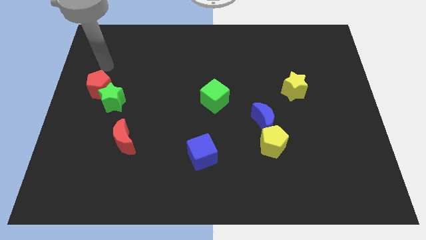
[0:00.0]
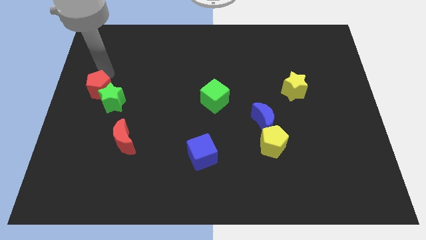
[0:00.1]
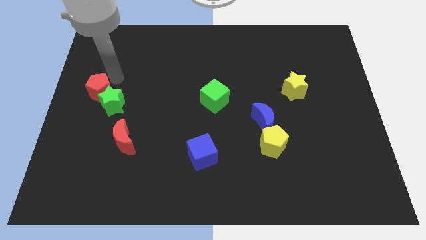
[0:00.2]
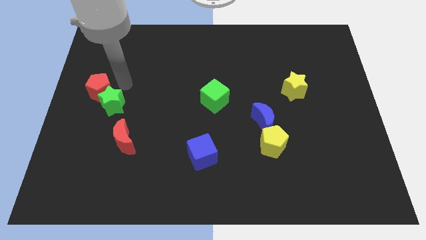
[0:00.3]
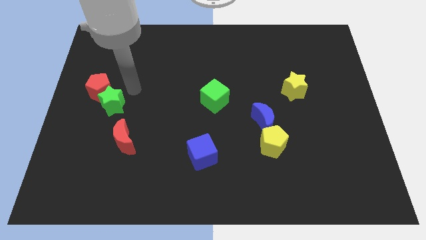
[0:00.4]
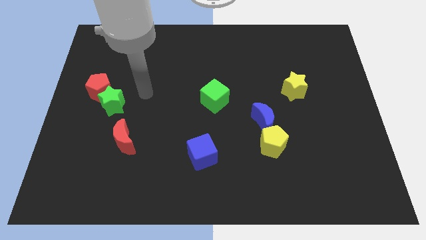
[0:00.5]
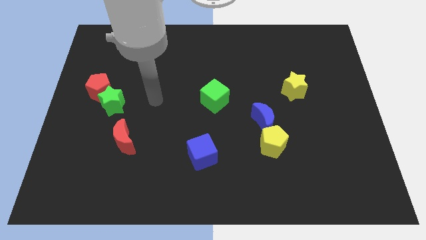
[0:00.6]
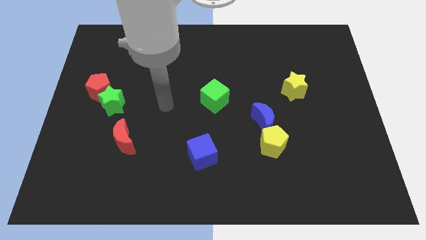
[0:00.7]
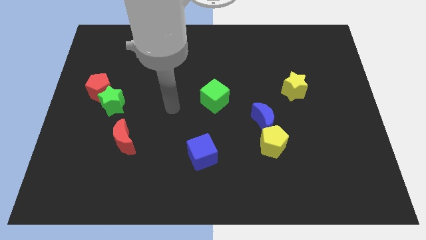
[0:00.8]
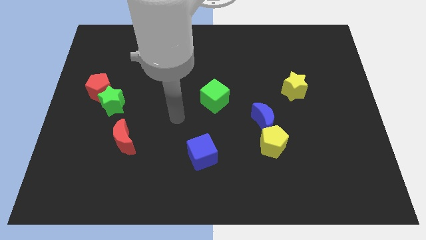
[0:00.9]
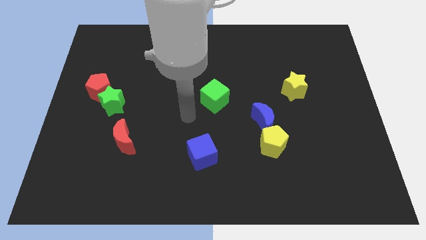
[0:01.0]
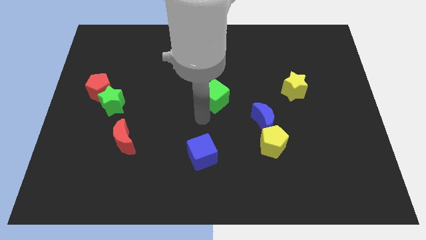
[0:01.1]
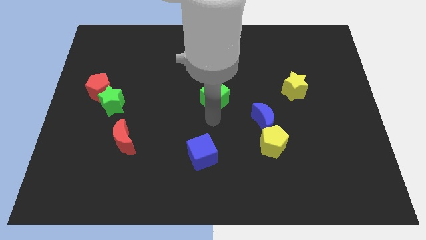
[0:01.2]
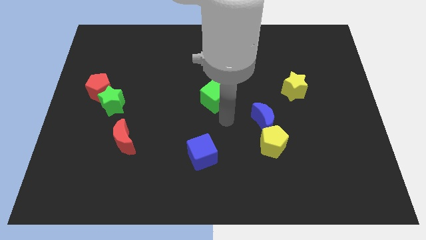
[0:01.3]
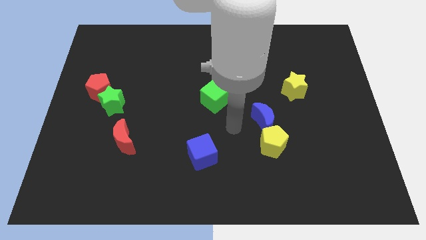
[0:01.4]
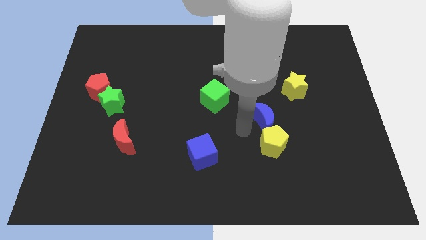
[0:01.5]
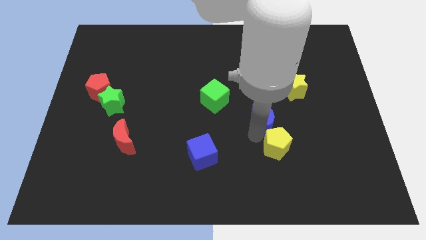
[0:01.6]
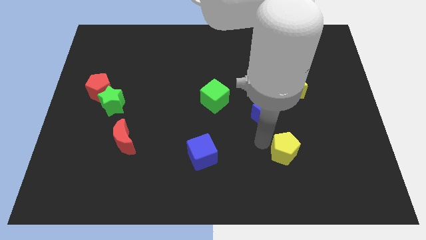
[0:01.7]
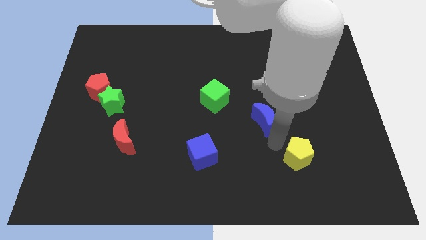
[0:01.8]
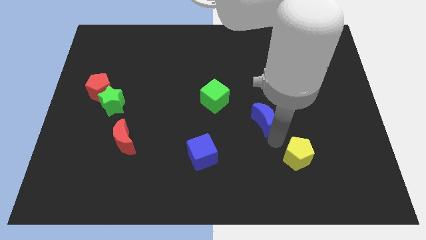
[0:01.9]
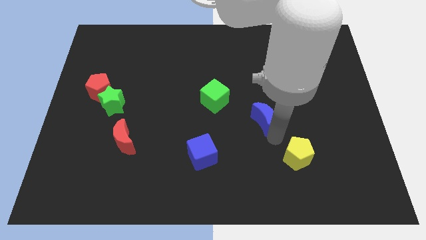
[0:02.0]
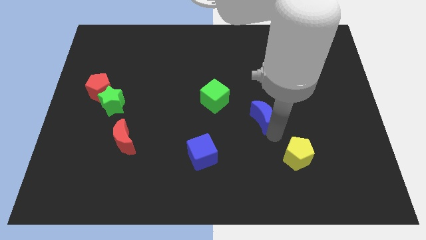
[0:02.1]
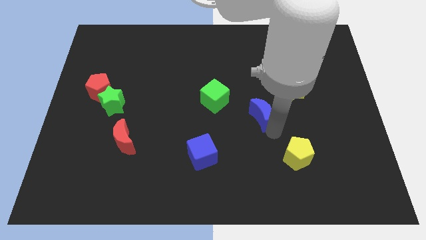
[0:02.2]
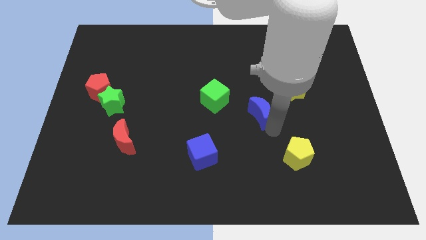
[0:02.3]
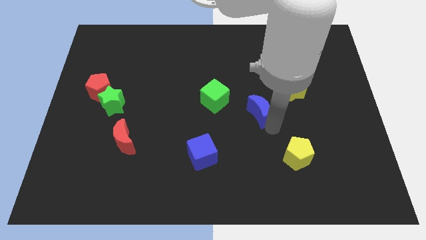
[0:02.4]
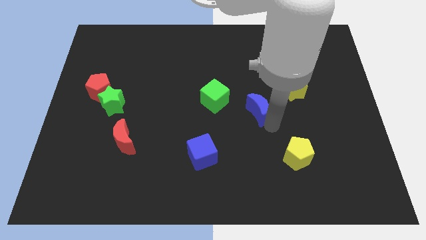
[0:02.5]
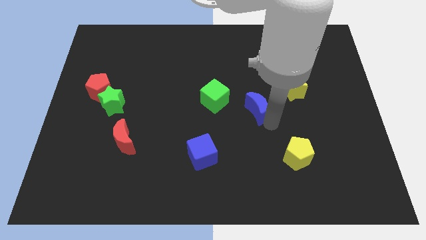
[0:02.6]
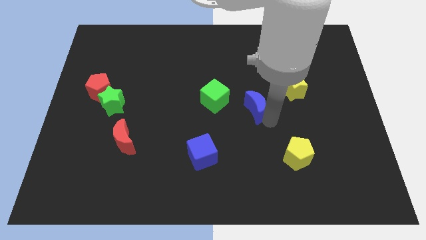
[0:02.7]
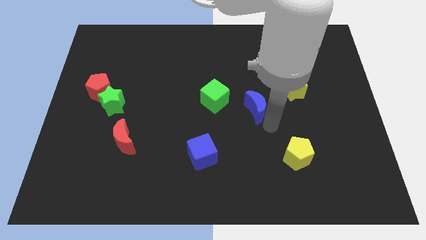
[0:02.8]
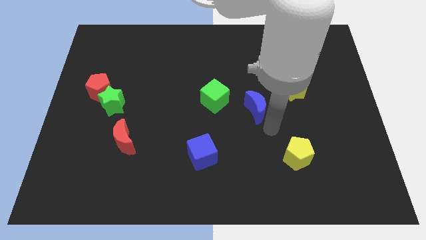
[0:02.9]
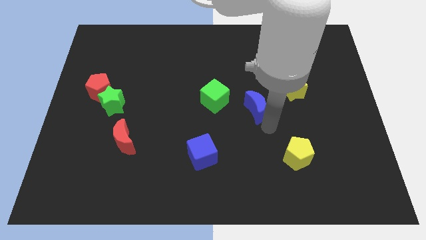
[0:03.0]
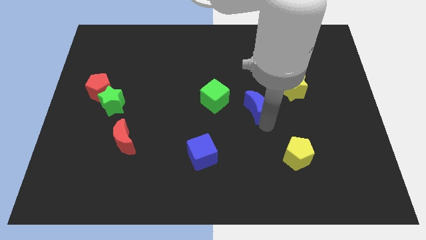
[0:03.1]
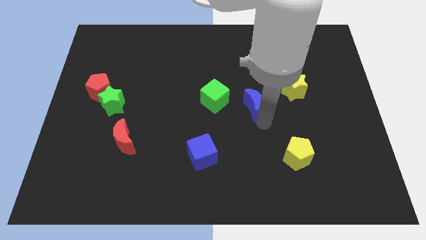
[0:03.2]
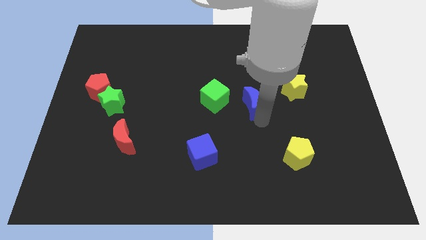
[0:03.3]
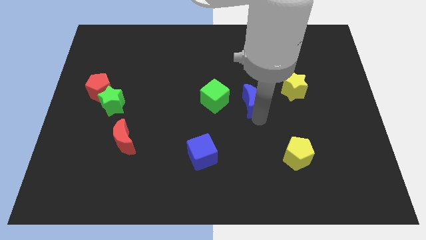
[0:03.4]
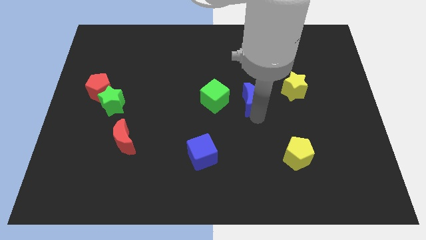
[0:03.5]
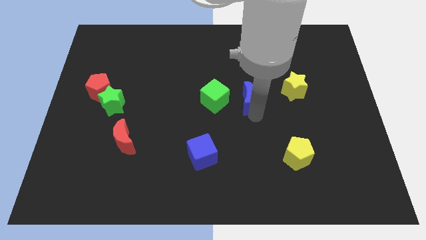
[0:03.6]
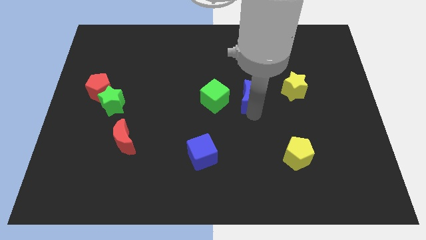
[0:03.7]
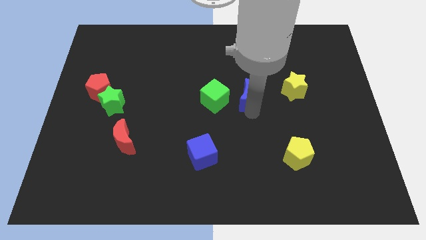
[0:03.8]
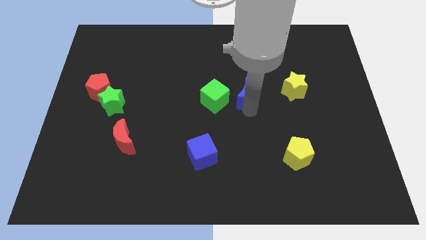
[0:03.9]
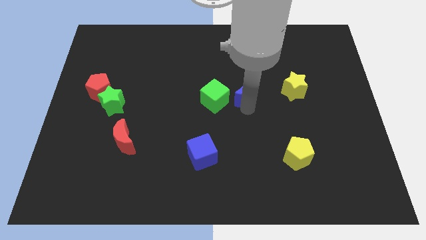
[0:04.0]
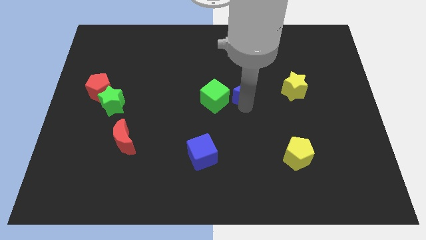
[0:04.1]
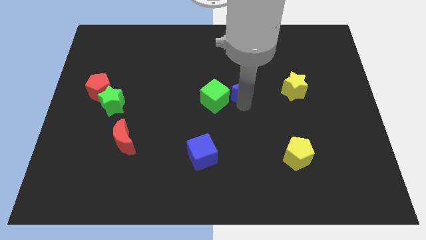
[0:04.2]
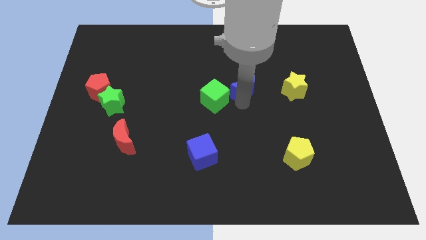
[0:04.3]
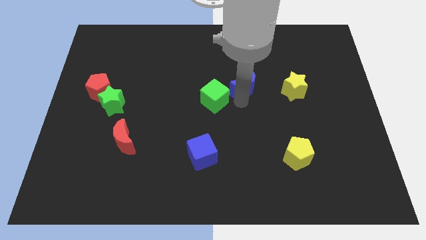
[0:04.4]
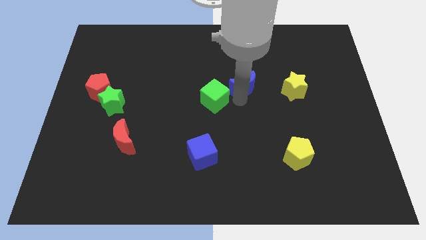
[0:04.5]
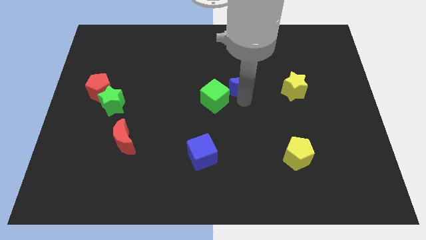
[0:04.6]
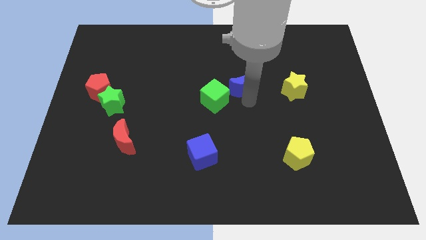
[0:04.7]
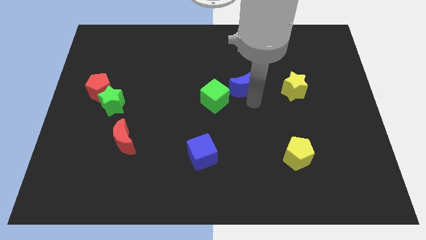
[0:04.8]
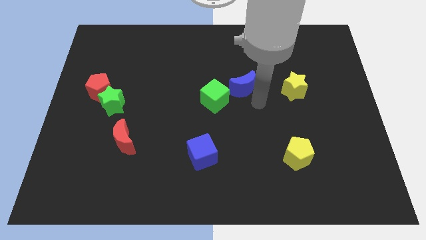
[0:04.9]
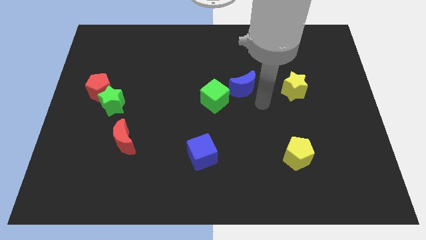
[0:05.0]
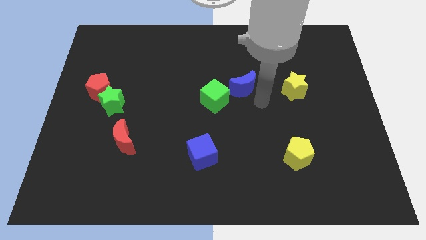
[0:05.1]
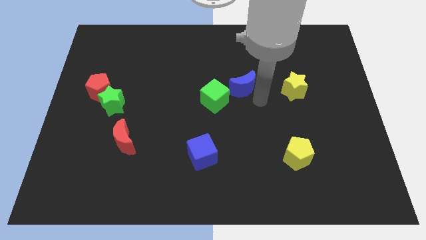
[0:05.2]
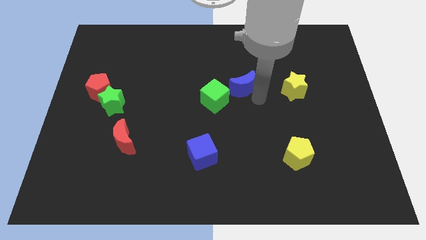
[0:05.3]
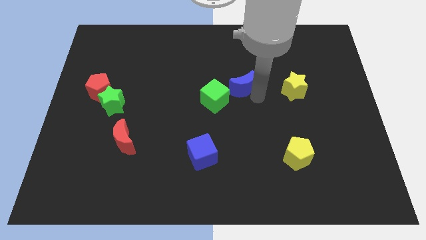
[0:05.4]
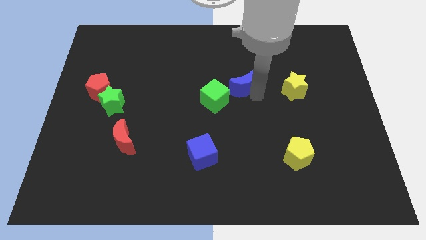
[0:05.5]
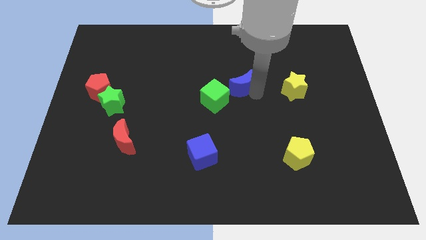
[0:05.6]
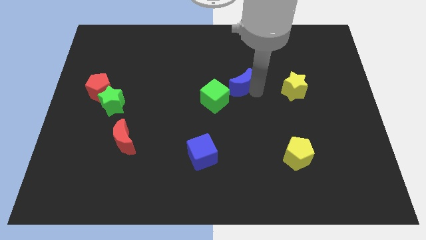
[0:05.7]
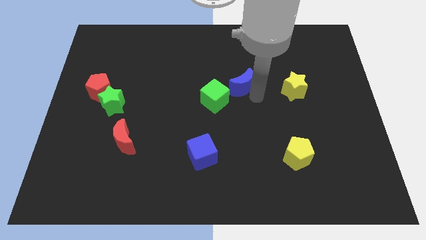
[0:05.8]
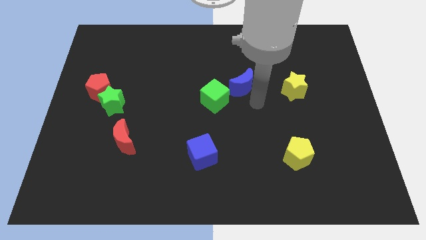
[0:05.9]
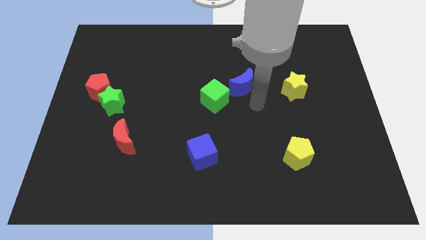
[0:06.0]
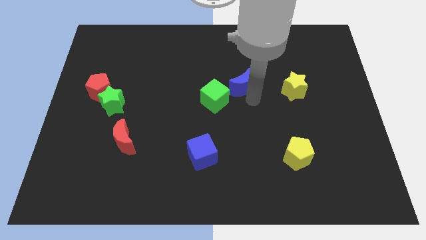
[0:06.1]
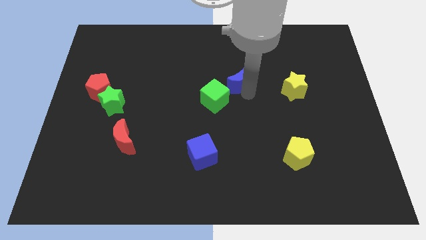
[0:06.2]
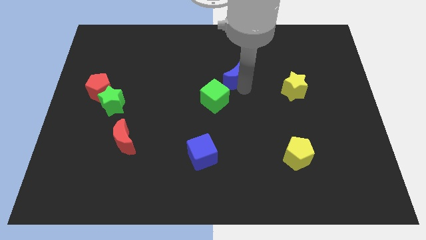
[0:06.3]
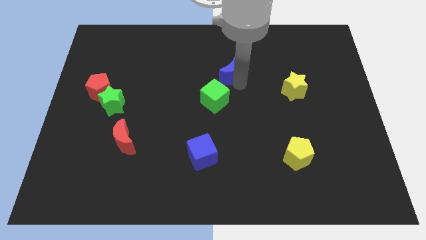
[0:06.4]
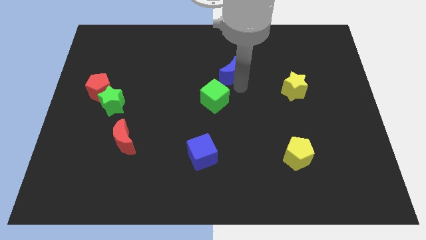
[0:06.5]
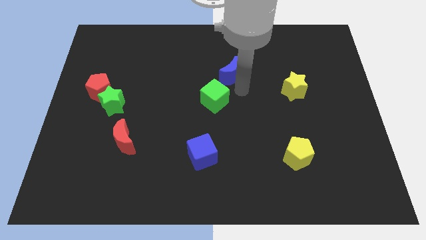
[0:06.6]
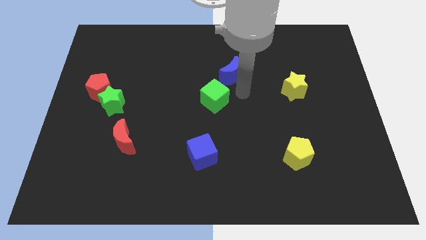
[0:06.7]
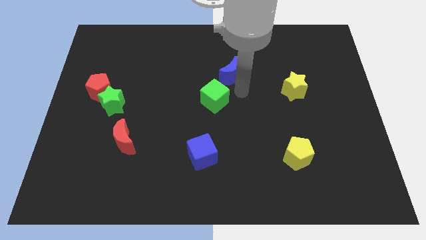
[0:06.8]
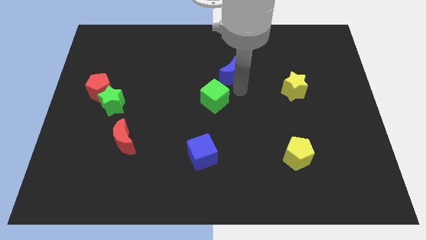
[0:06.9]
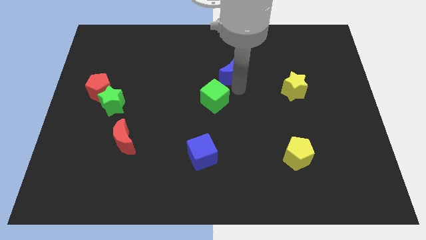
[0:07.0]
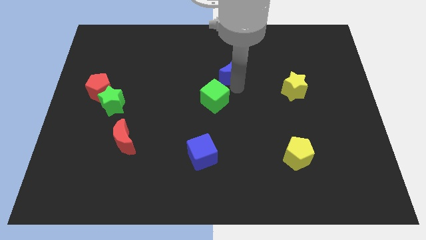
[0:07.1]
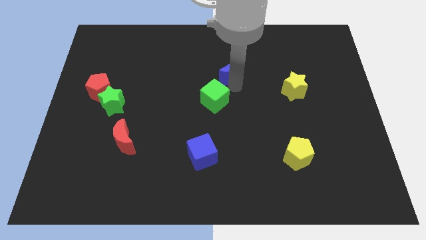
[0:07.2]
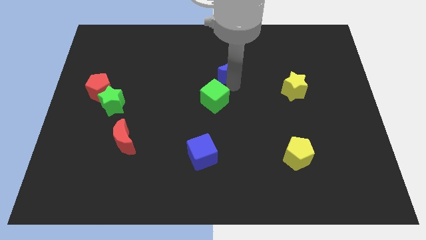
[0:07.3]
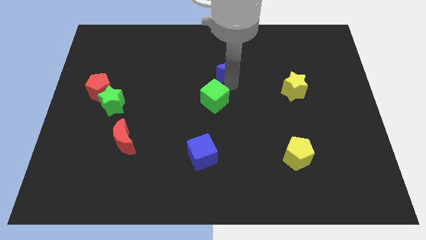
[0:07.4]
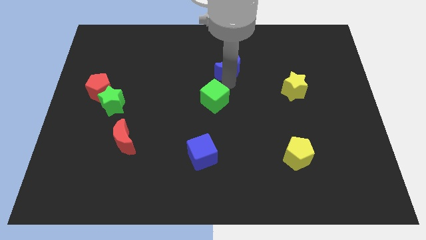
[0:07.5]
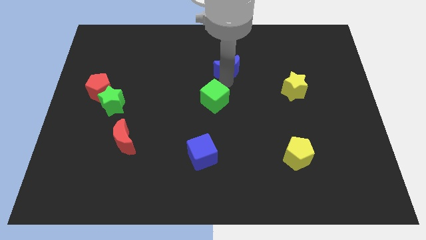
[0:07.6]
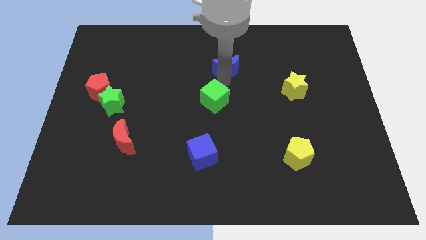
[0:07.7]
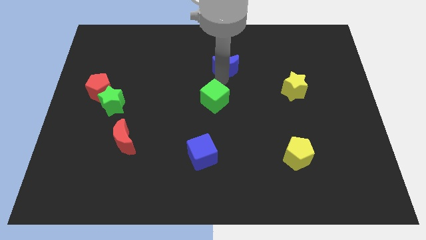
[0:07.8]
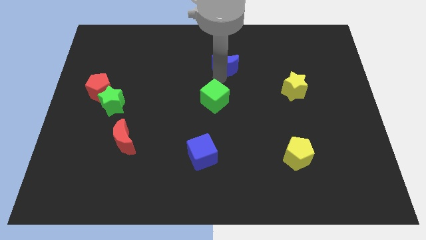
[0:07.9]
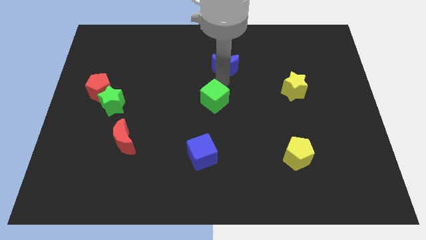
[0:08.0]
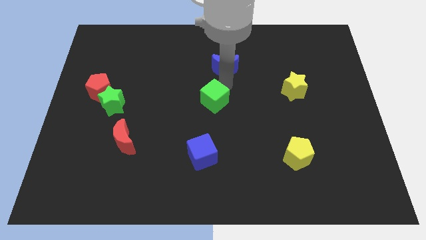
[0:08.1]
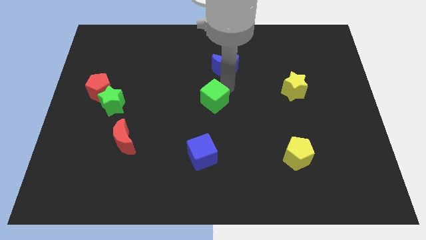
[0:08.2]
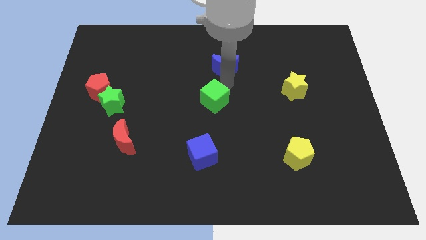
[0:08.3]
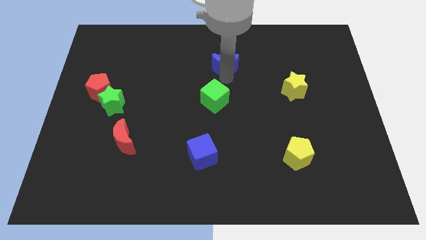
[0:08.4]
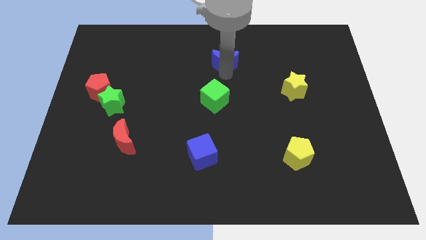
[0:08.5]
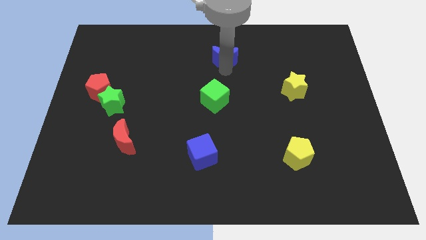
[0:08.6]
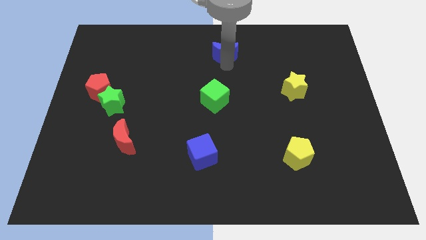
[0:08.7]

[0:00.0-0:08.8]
slide the blue moon to the top side
